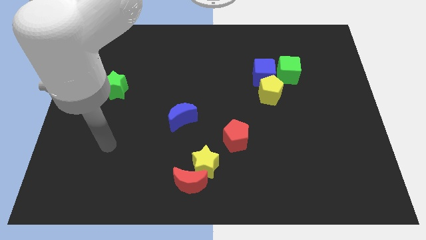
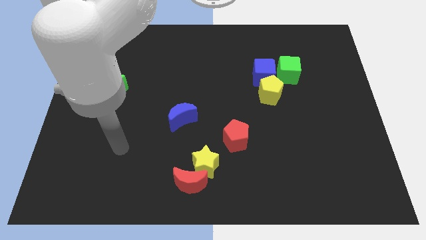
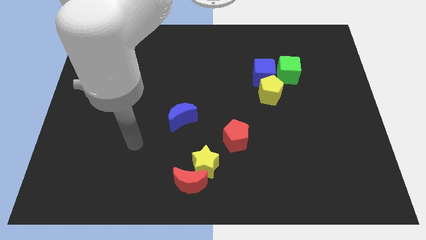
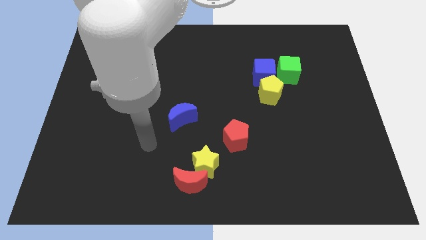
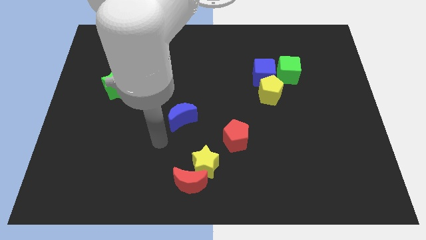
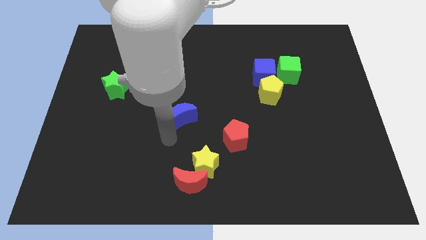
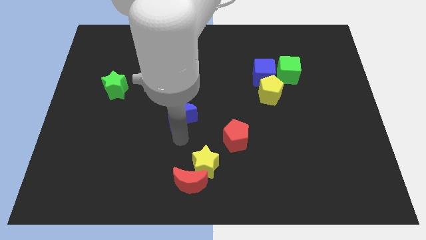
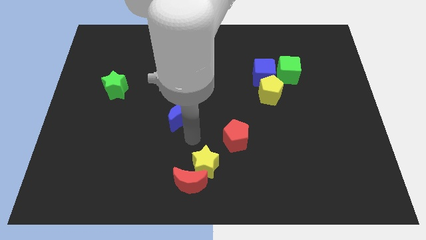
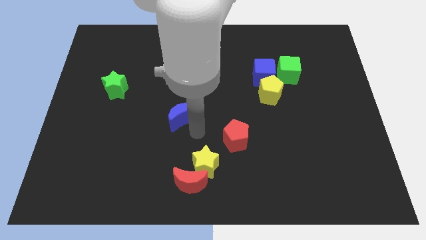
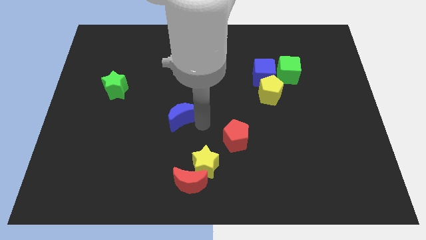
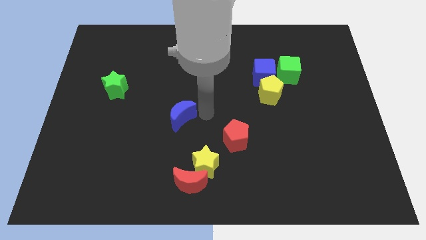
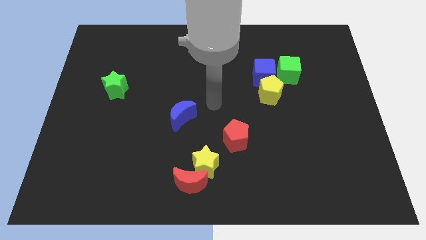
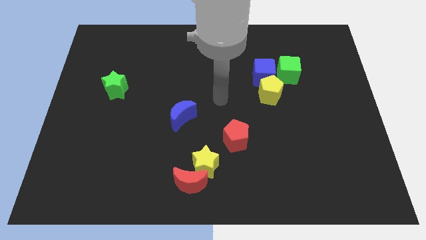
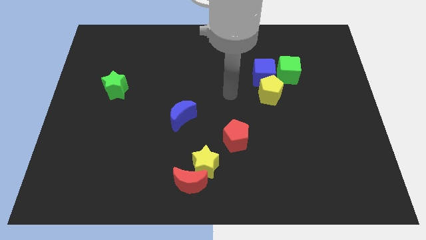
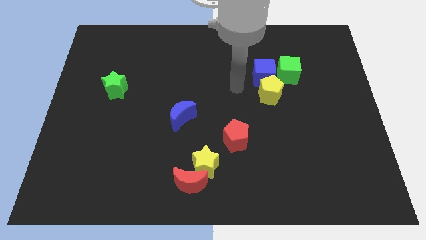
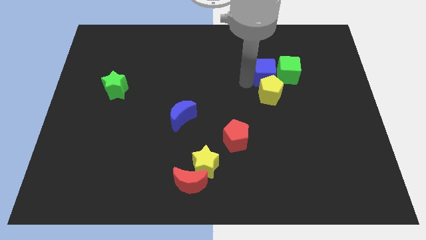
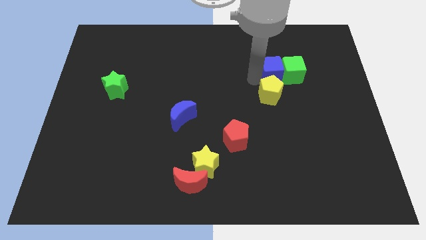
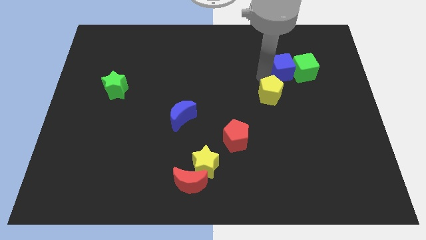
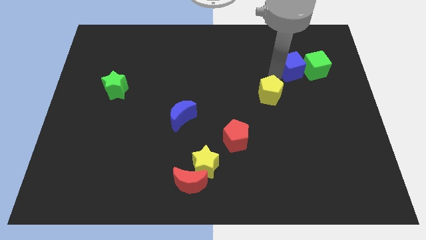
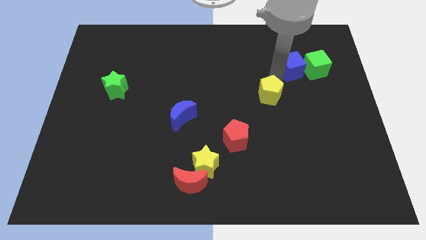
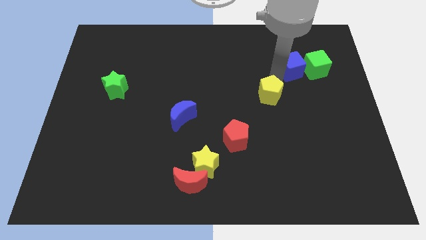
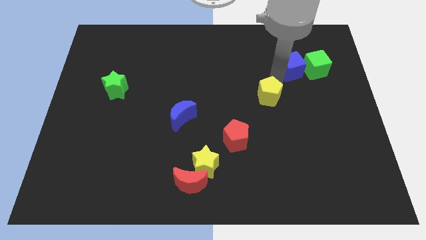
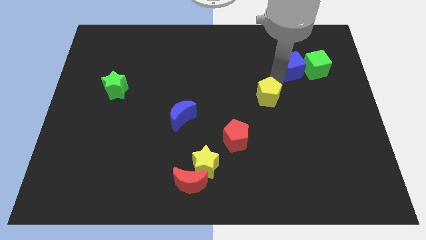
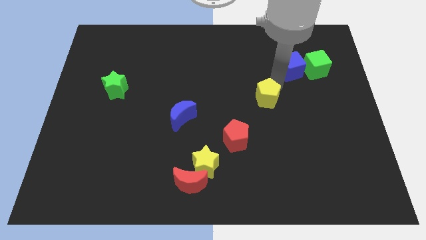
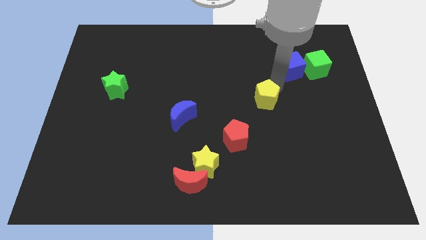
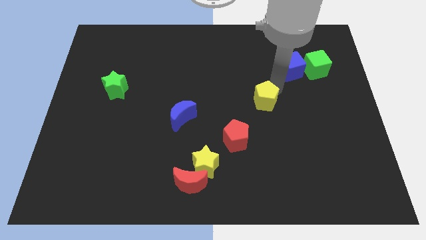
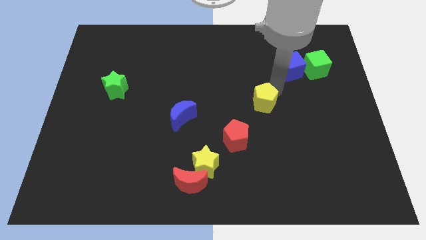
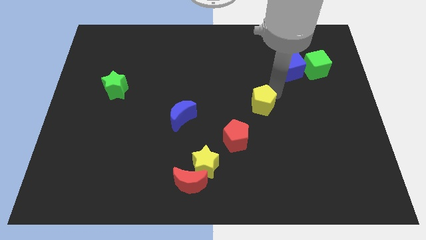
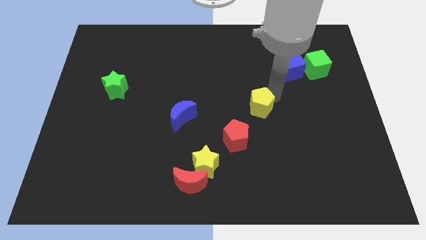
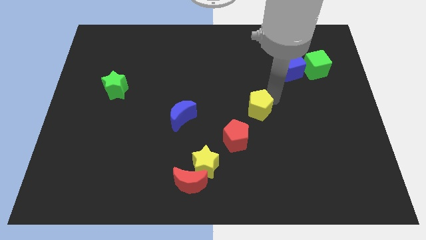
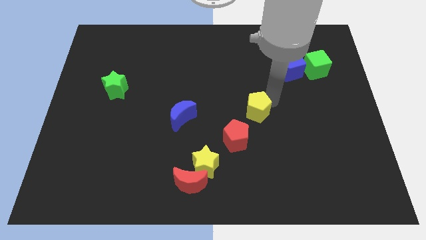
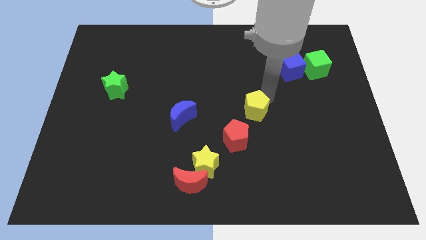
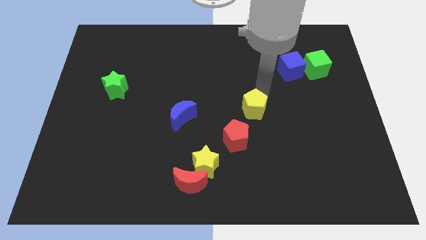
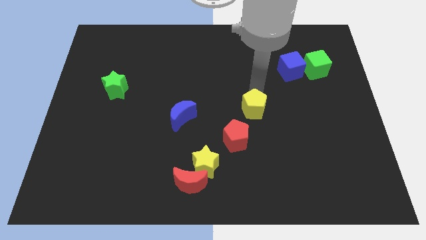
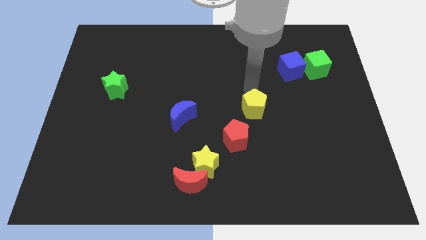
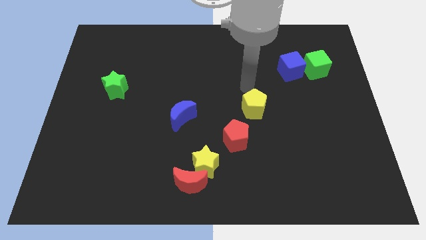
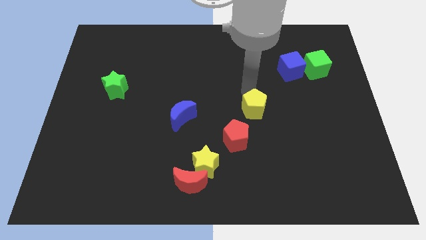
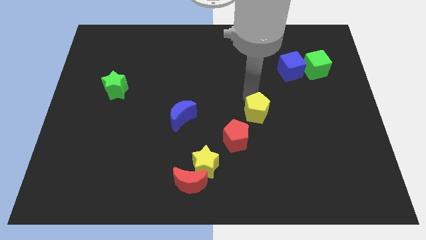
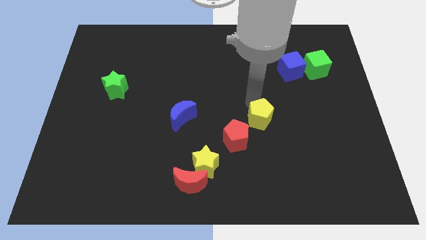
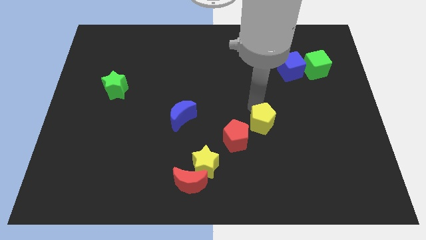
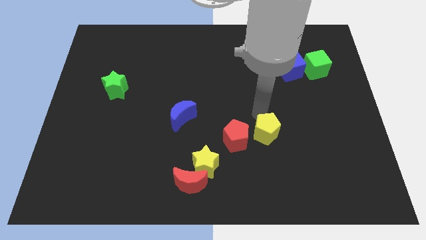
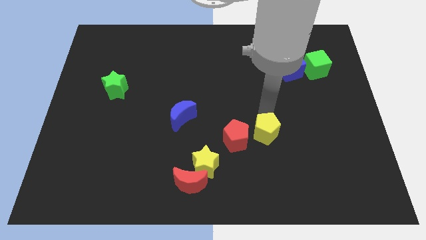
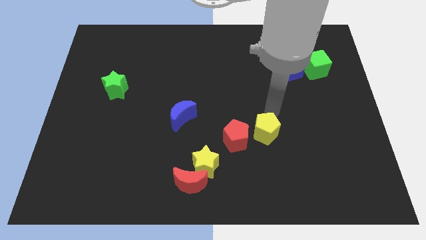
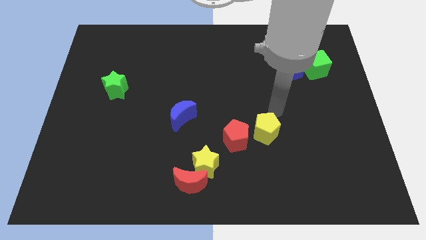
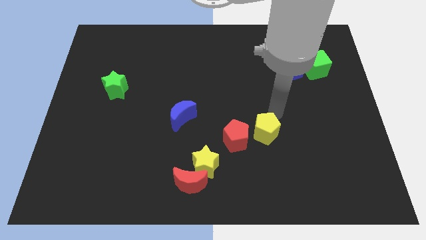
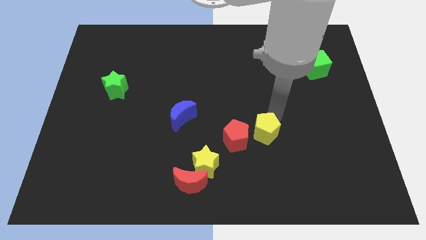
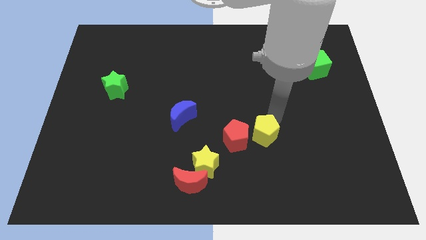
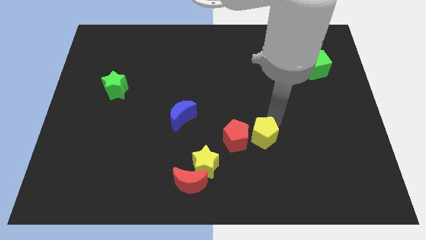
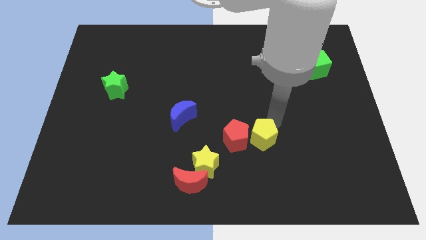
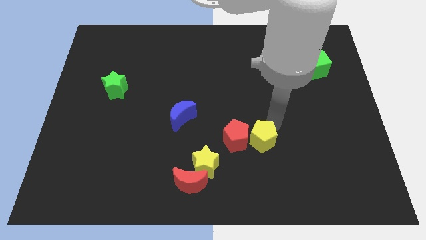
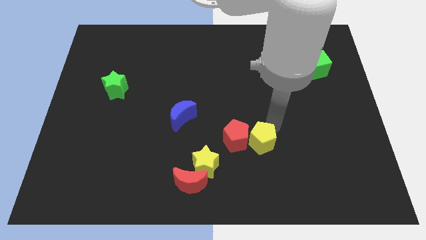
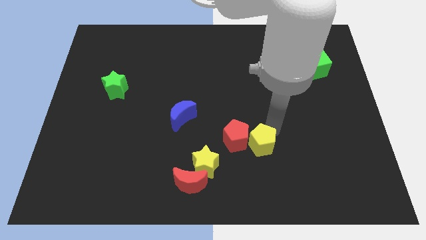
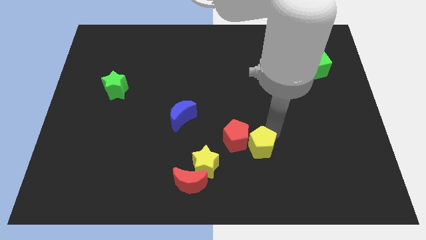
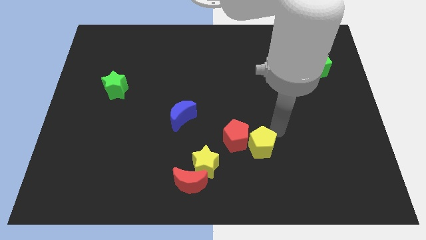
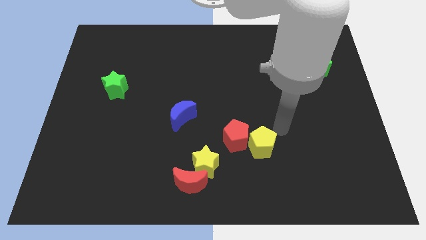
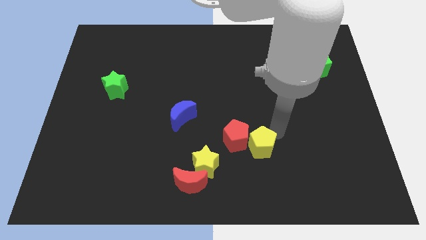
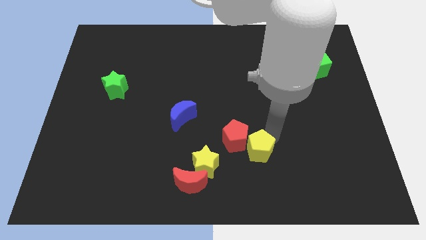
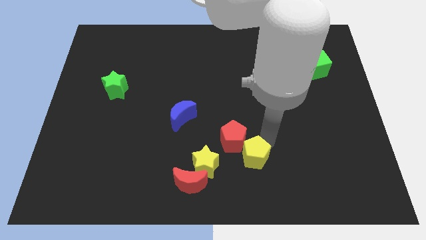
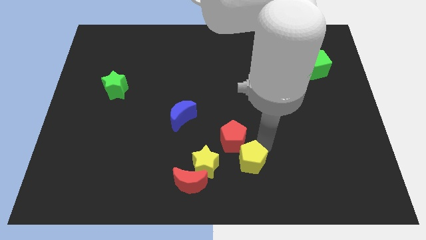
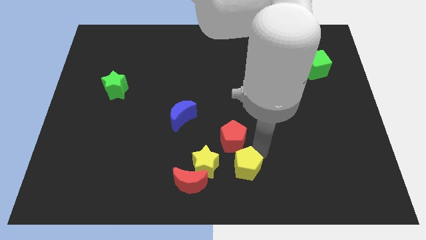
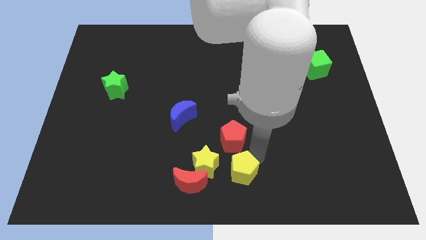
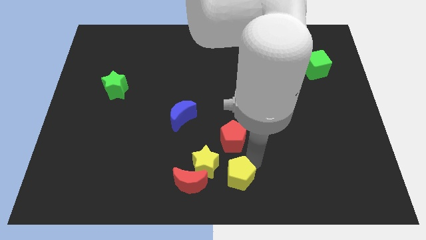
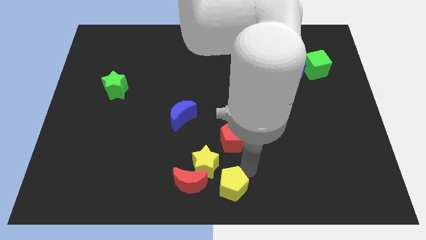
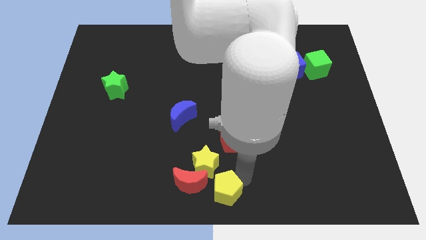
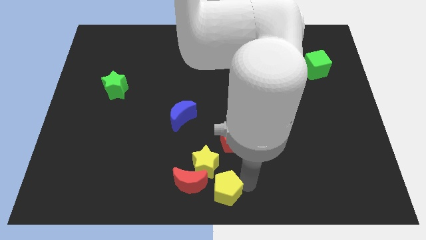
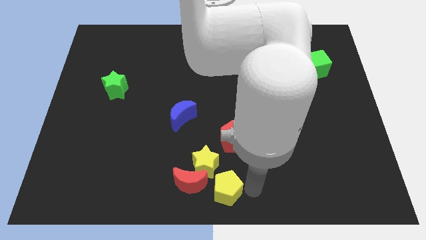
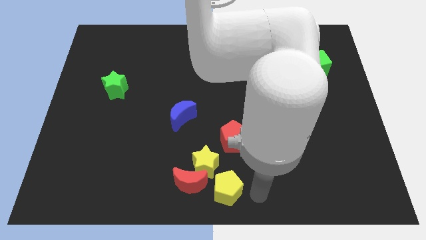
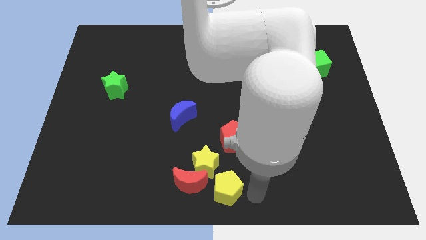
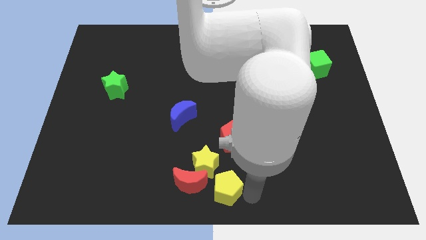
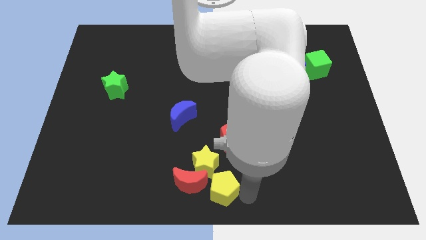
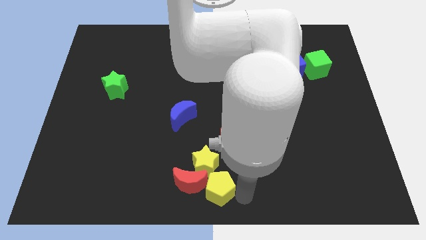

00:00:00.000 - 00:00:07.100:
put the yellow pentagon towards the red moon

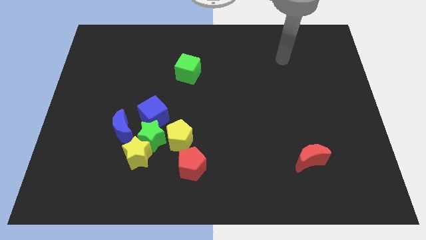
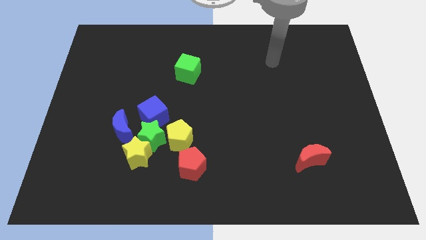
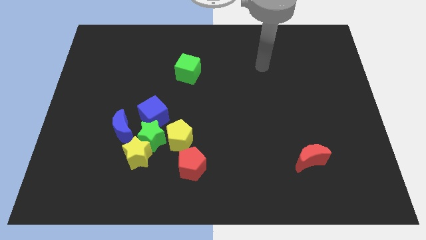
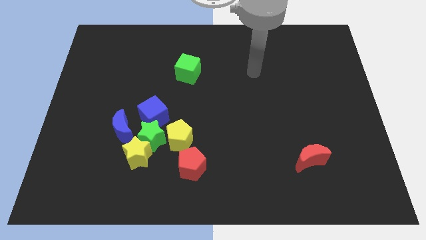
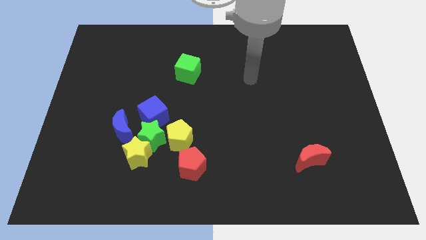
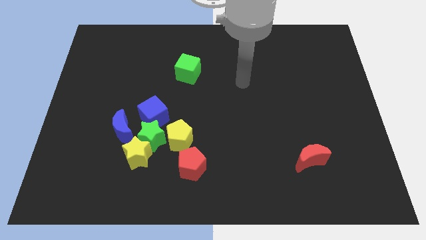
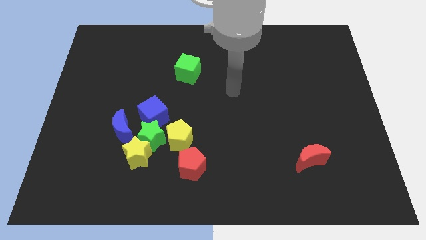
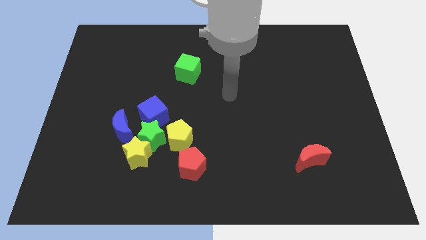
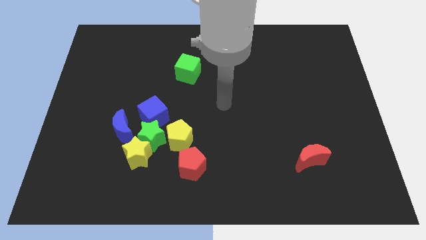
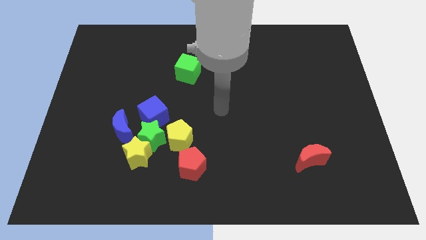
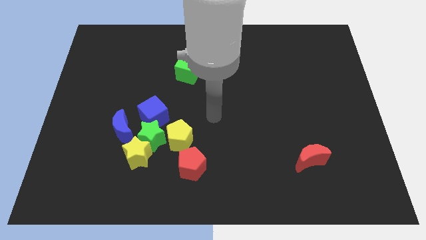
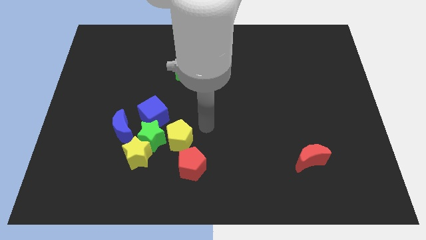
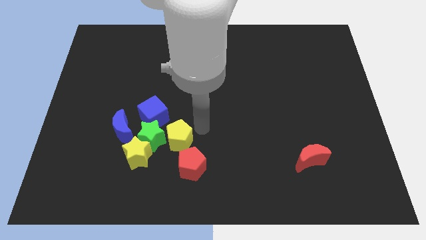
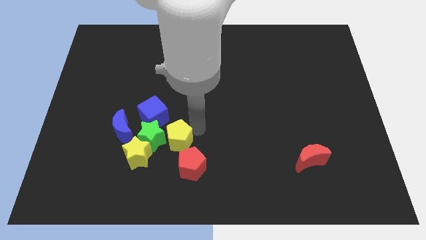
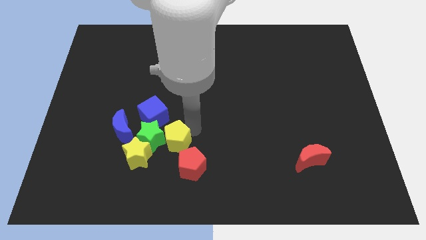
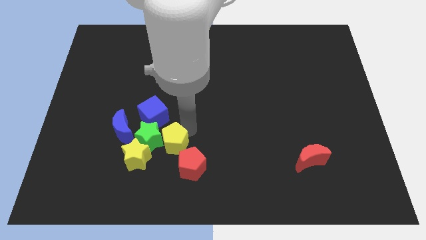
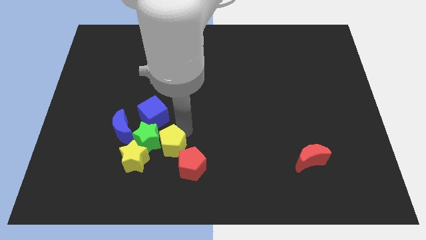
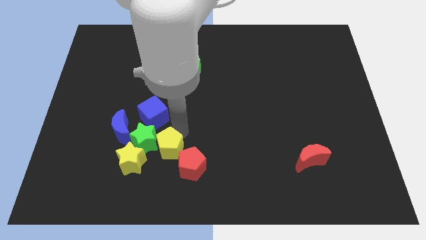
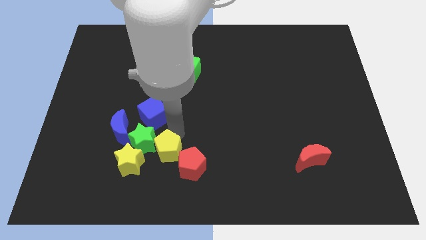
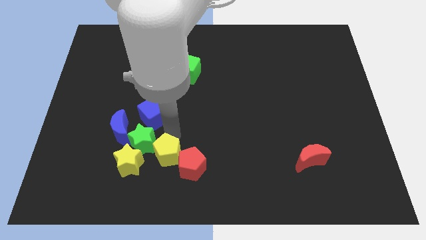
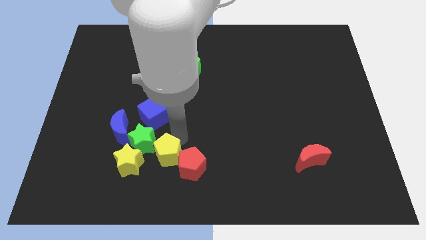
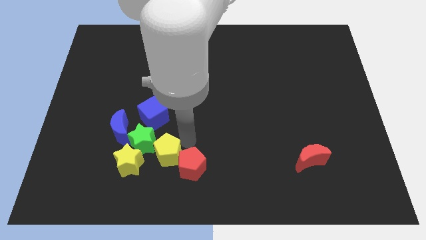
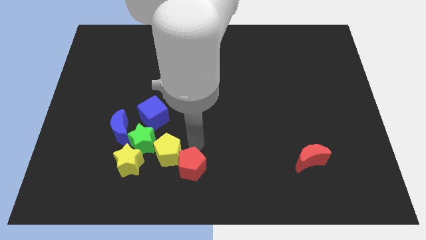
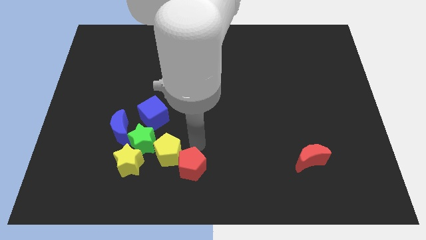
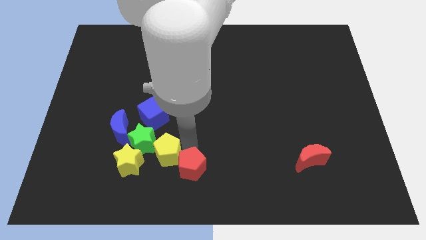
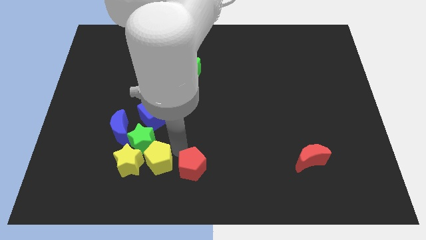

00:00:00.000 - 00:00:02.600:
put the yellow pentagon towards the yellow star
